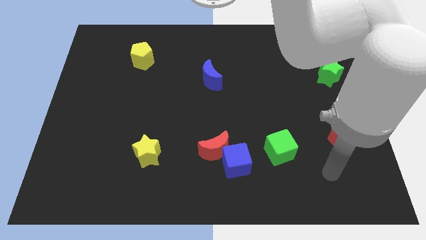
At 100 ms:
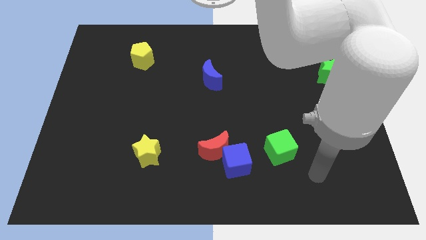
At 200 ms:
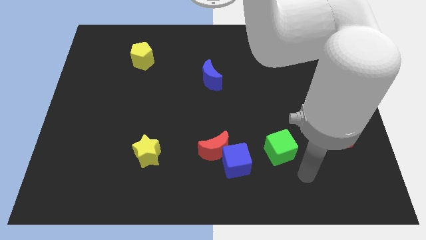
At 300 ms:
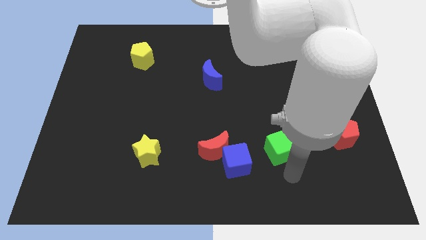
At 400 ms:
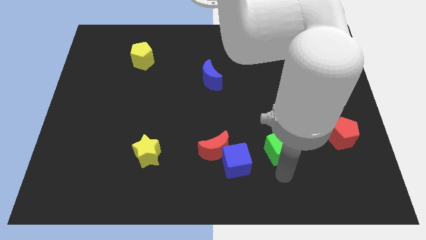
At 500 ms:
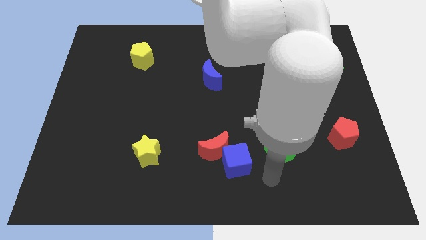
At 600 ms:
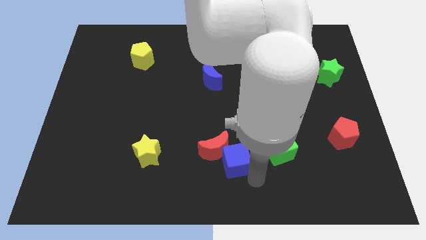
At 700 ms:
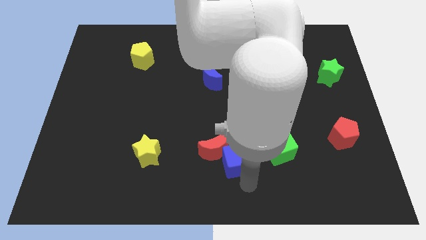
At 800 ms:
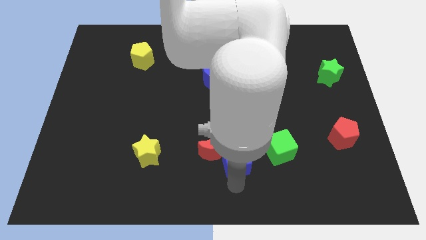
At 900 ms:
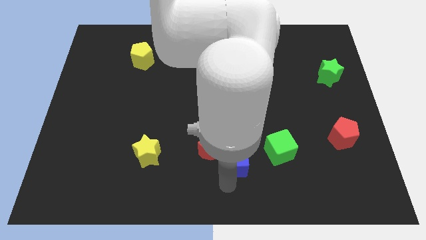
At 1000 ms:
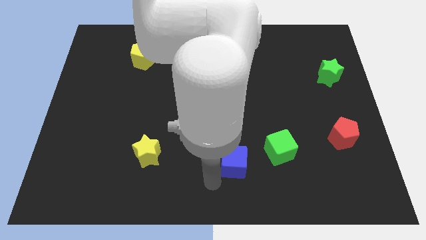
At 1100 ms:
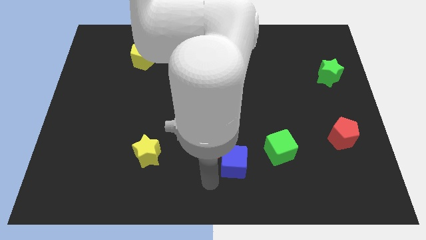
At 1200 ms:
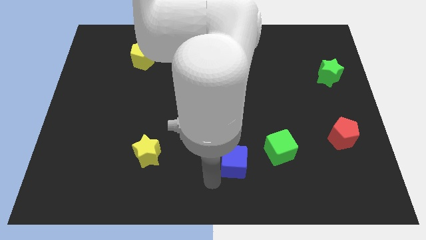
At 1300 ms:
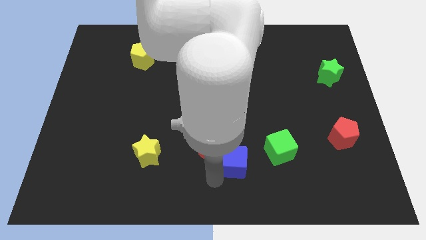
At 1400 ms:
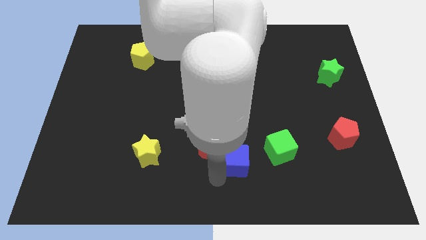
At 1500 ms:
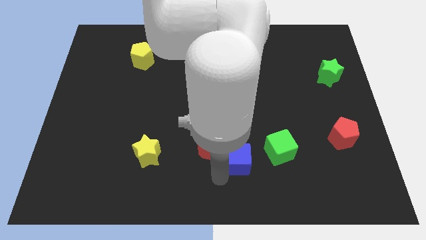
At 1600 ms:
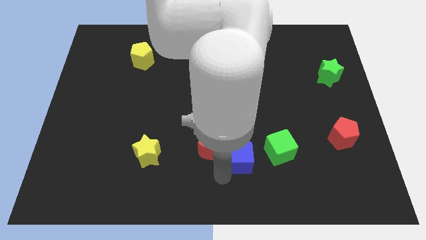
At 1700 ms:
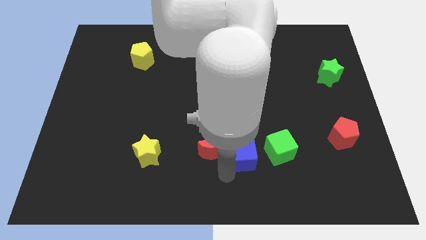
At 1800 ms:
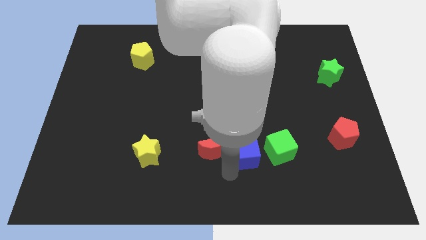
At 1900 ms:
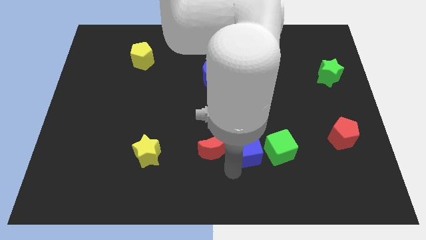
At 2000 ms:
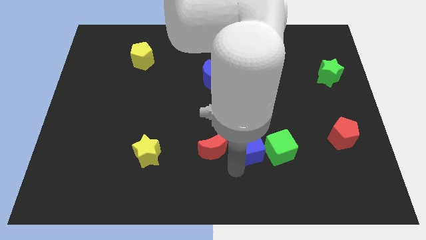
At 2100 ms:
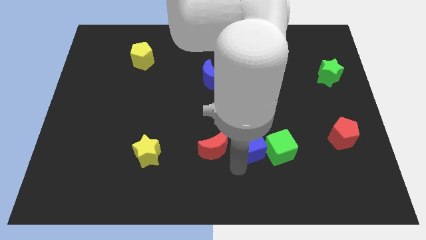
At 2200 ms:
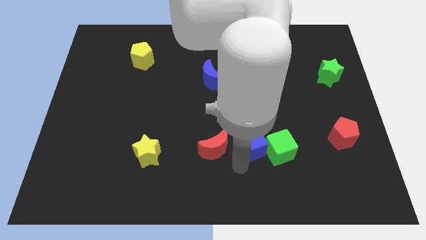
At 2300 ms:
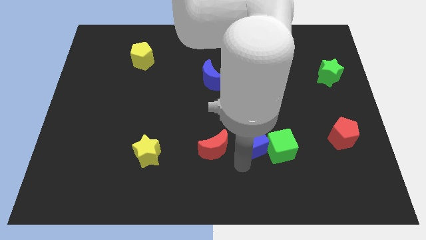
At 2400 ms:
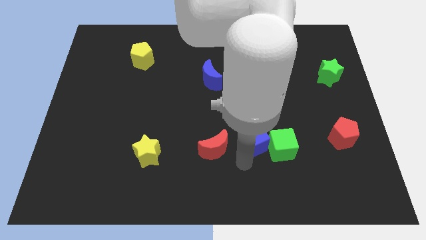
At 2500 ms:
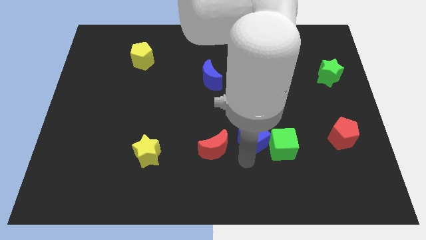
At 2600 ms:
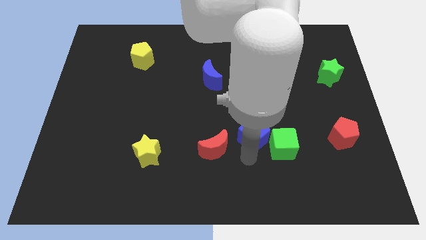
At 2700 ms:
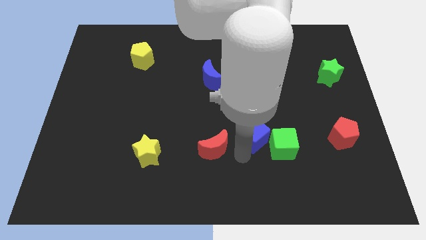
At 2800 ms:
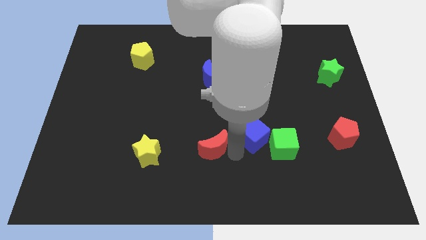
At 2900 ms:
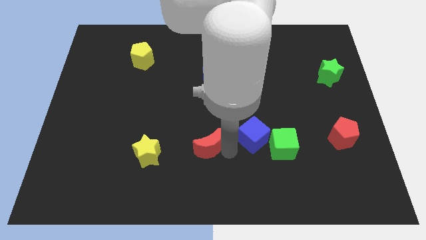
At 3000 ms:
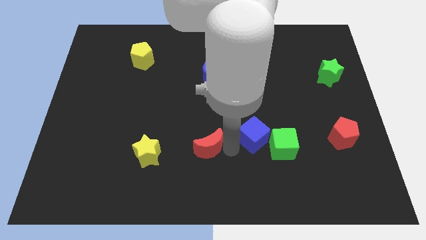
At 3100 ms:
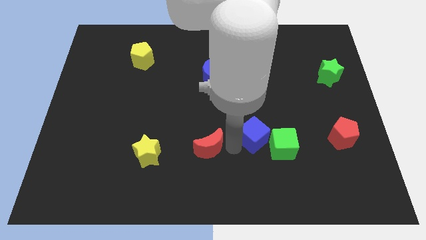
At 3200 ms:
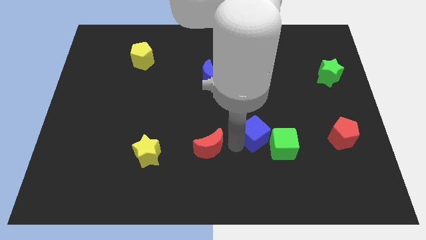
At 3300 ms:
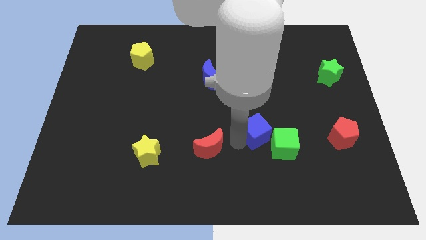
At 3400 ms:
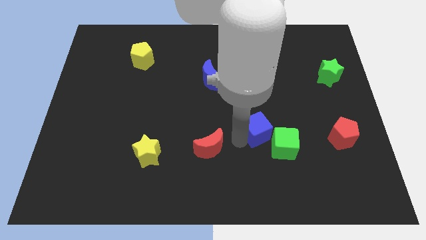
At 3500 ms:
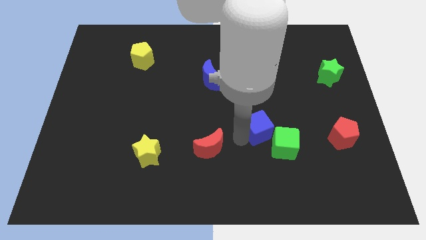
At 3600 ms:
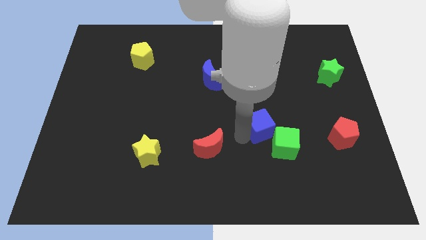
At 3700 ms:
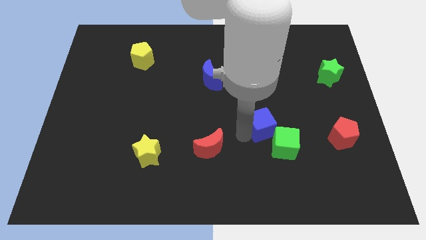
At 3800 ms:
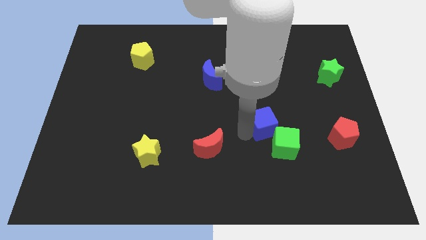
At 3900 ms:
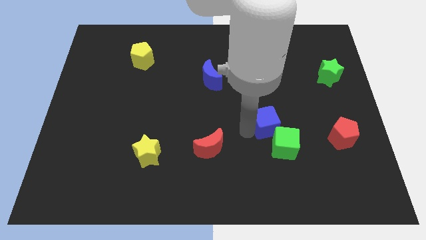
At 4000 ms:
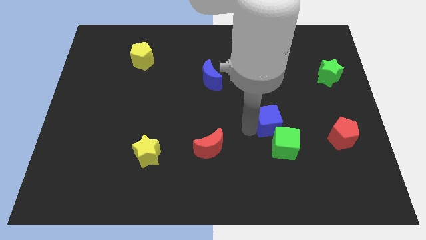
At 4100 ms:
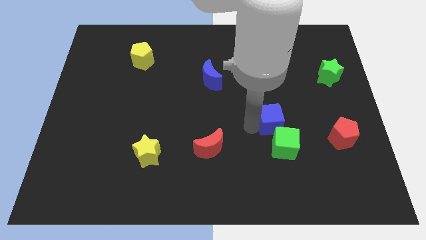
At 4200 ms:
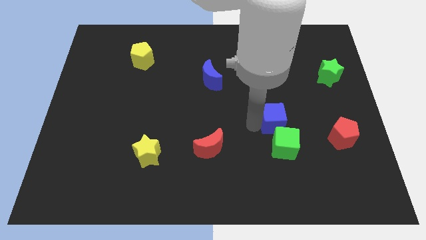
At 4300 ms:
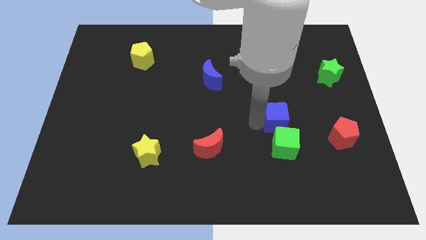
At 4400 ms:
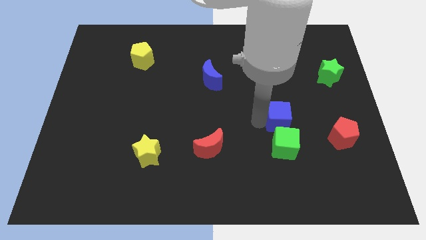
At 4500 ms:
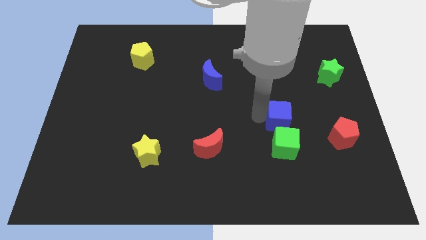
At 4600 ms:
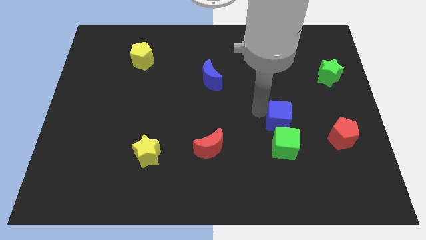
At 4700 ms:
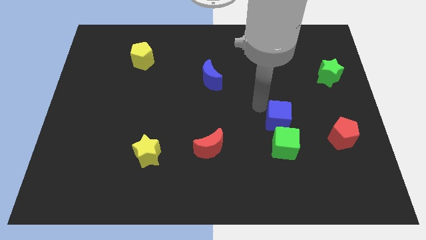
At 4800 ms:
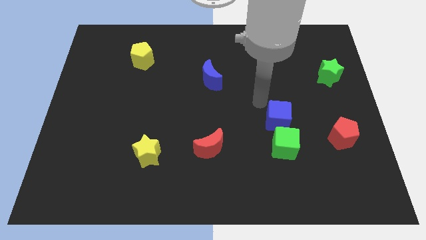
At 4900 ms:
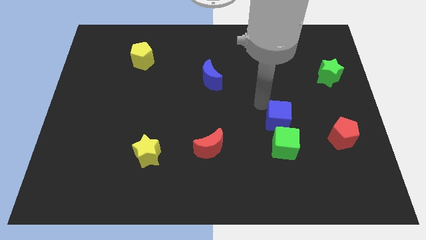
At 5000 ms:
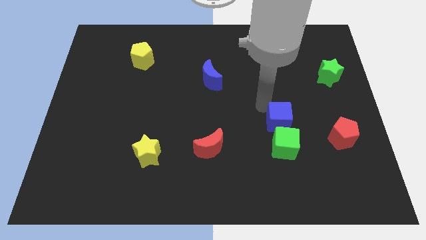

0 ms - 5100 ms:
put the blue cube just left of the red pentagon

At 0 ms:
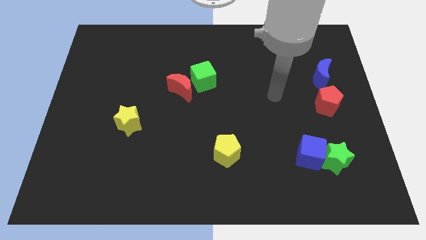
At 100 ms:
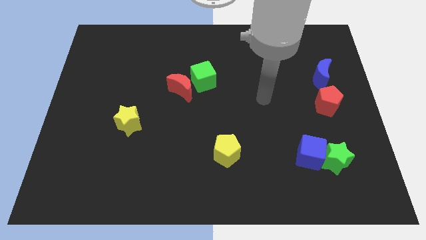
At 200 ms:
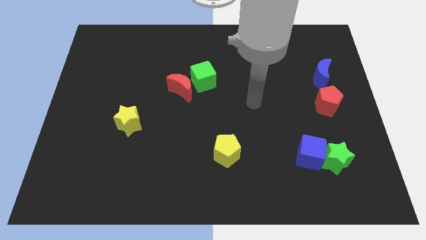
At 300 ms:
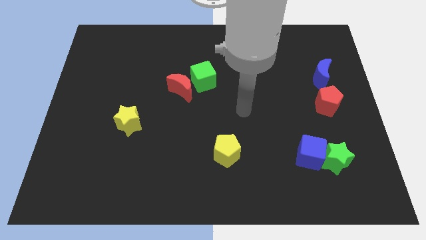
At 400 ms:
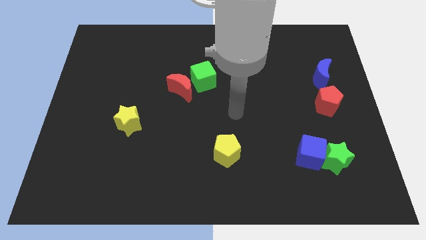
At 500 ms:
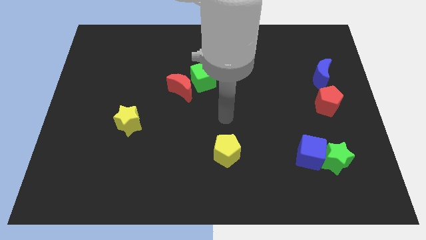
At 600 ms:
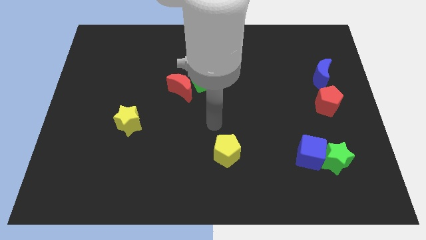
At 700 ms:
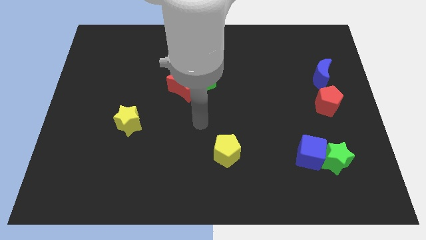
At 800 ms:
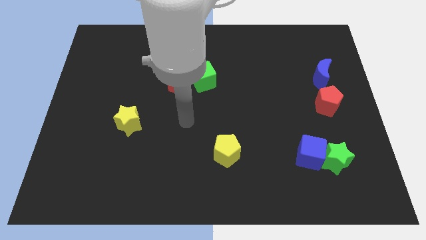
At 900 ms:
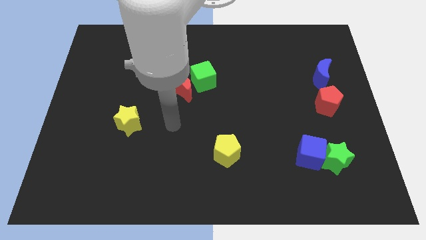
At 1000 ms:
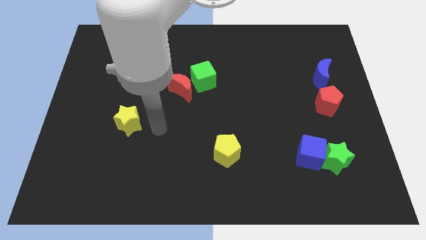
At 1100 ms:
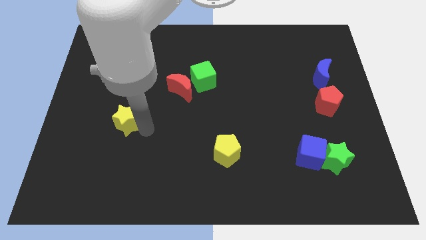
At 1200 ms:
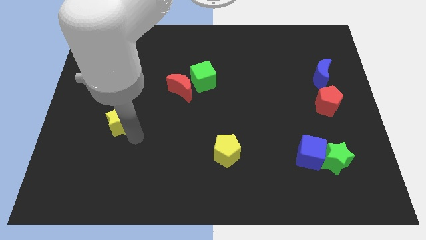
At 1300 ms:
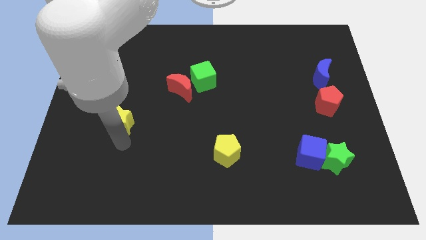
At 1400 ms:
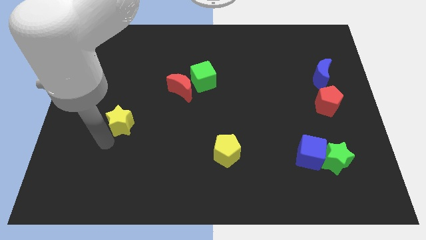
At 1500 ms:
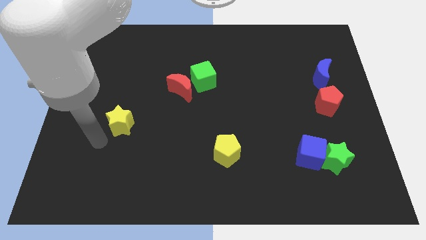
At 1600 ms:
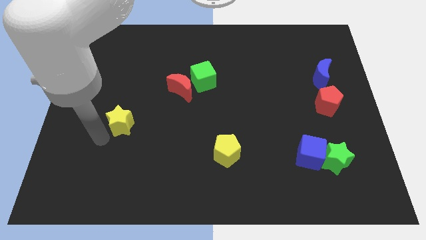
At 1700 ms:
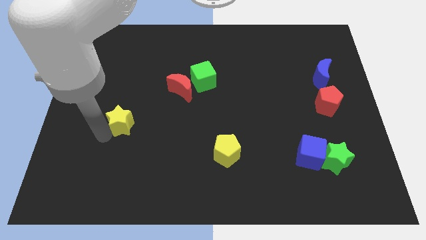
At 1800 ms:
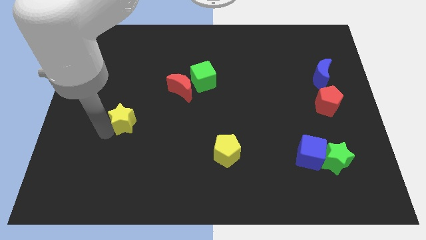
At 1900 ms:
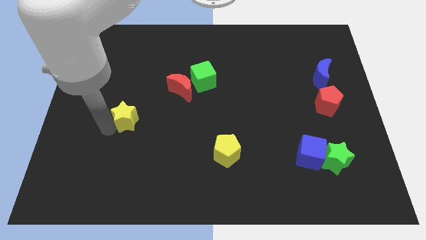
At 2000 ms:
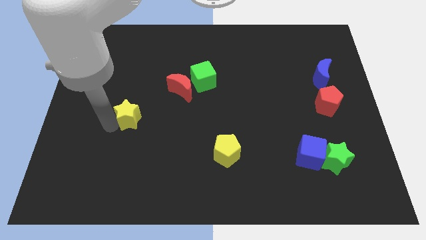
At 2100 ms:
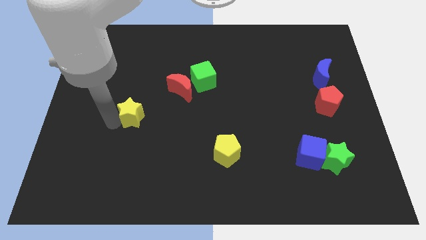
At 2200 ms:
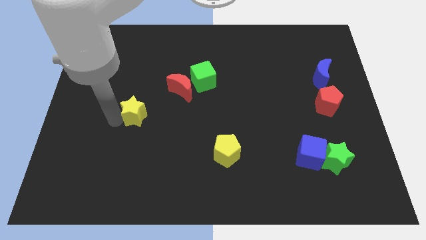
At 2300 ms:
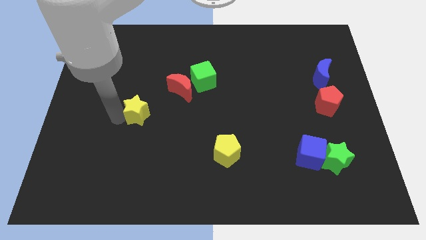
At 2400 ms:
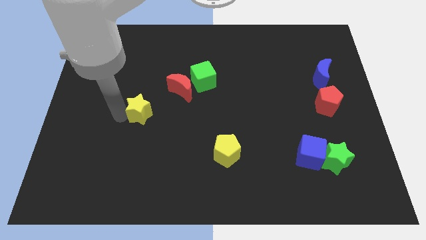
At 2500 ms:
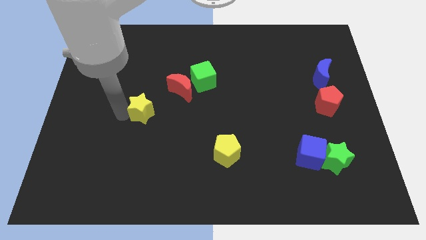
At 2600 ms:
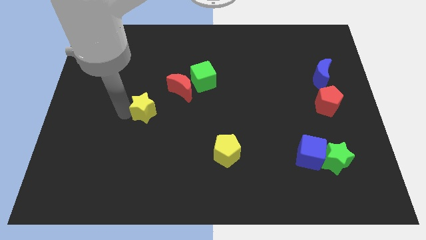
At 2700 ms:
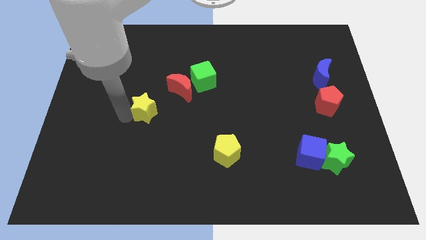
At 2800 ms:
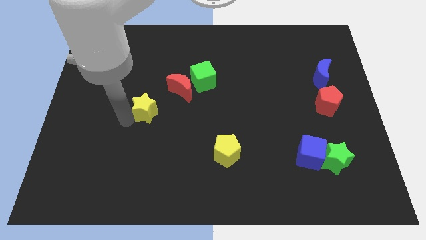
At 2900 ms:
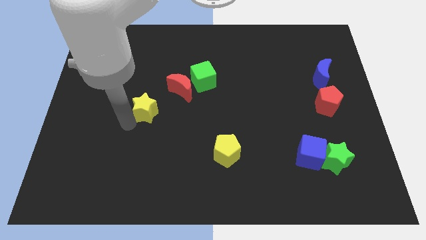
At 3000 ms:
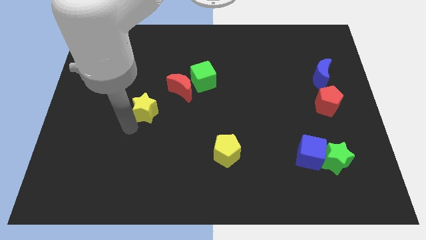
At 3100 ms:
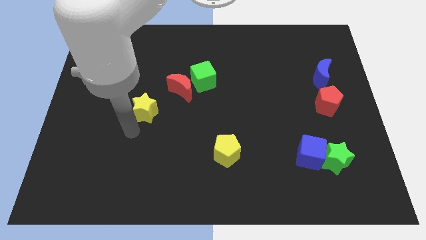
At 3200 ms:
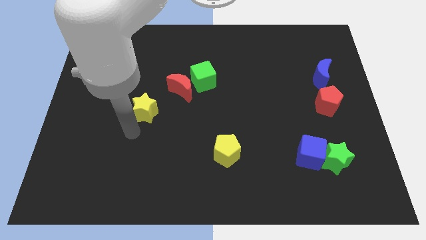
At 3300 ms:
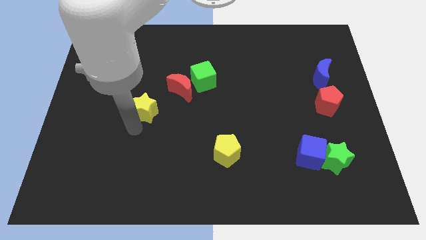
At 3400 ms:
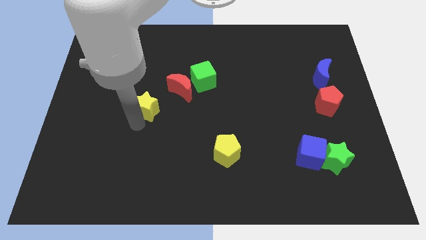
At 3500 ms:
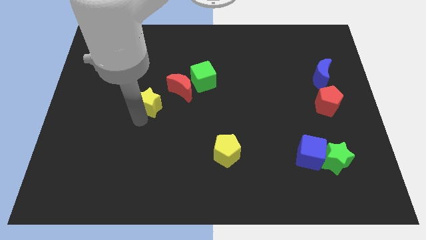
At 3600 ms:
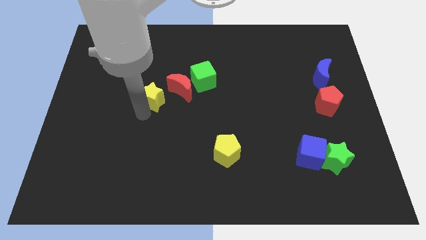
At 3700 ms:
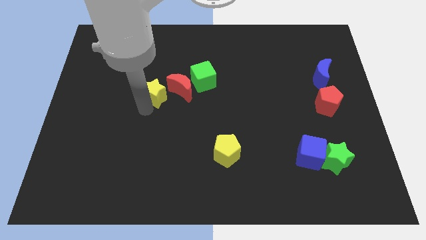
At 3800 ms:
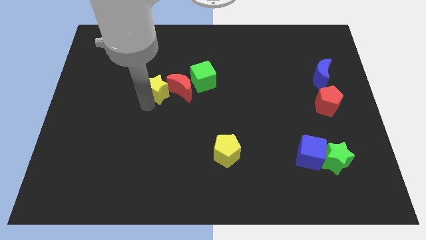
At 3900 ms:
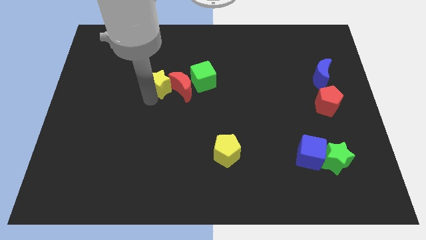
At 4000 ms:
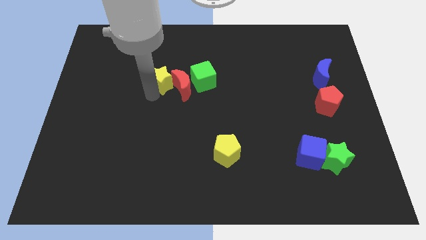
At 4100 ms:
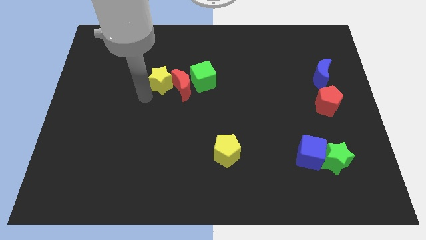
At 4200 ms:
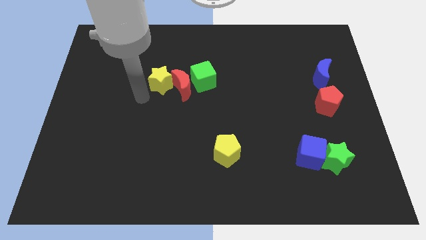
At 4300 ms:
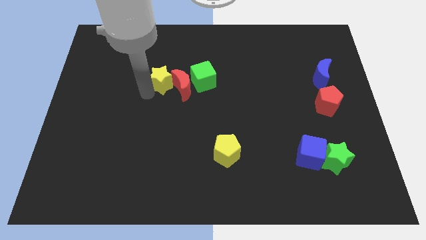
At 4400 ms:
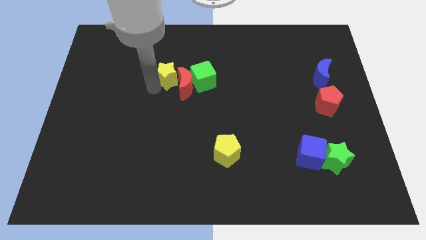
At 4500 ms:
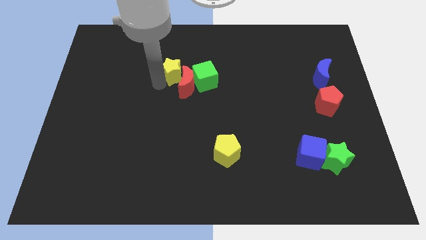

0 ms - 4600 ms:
slide the yellow star to the top left of the green cube
